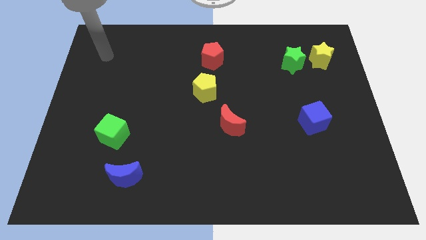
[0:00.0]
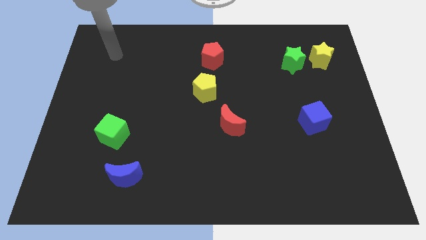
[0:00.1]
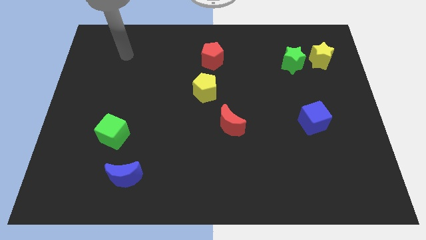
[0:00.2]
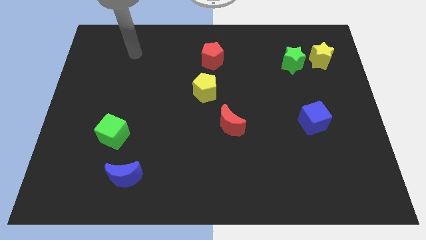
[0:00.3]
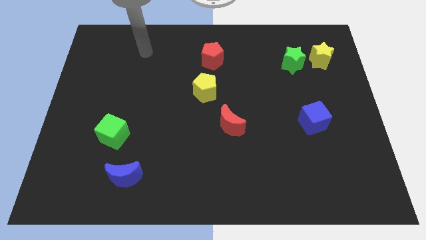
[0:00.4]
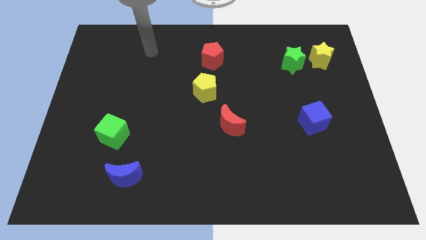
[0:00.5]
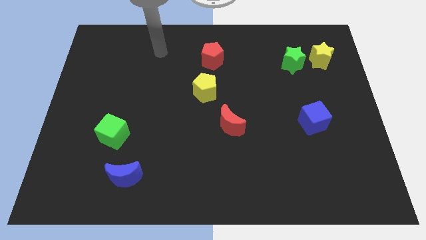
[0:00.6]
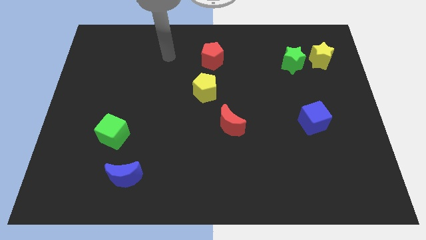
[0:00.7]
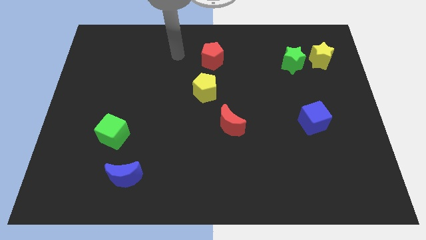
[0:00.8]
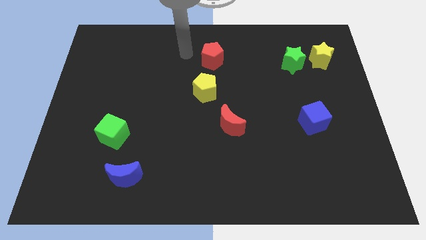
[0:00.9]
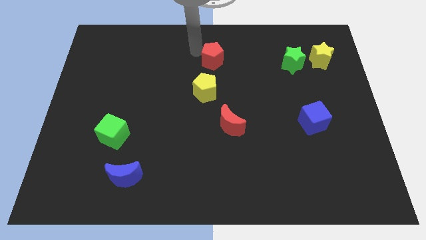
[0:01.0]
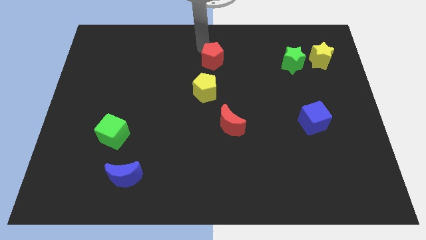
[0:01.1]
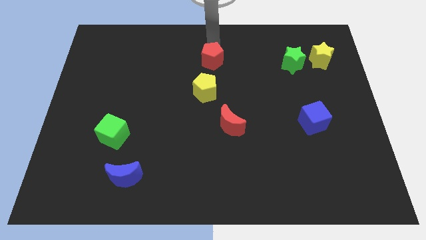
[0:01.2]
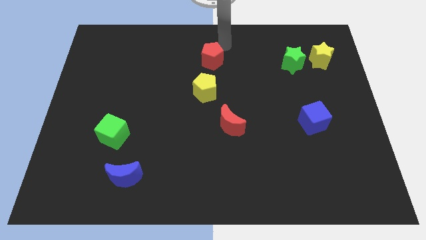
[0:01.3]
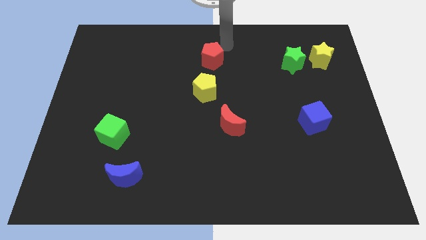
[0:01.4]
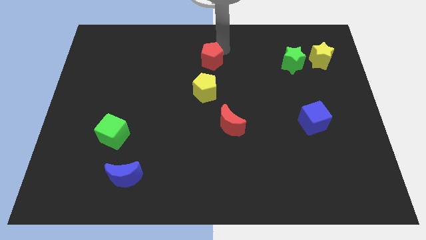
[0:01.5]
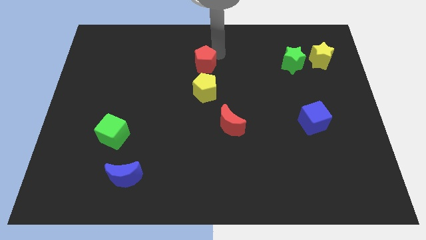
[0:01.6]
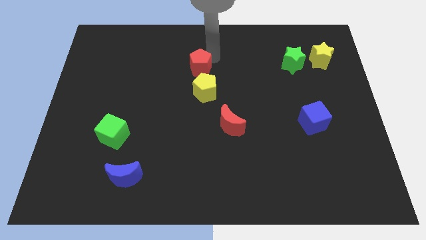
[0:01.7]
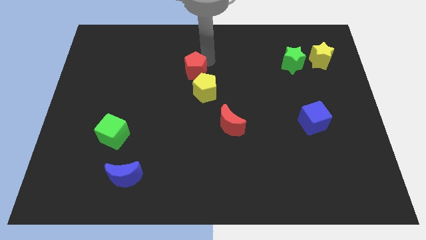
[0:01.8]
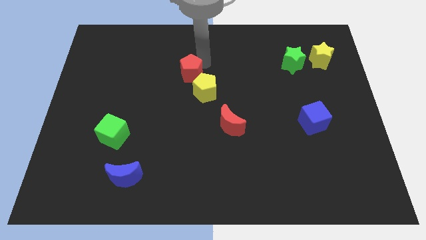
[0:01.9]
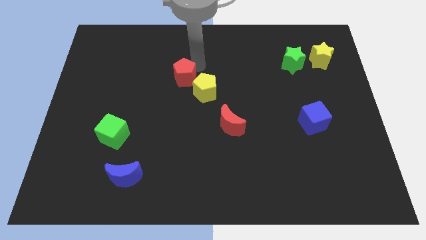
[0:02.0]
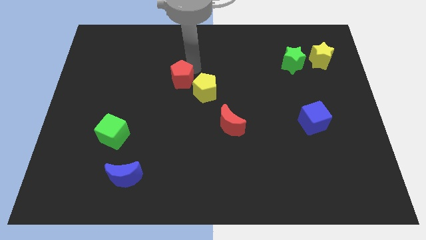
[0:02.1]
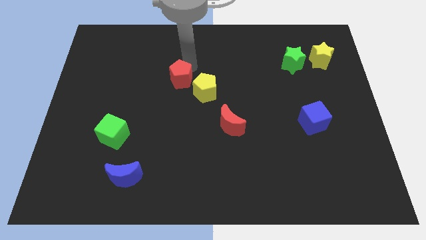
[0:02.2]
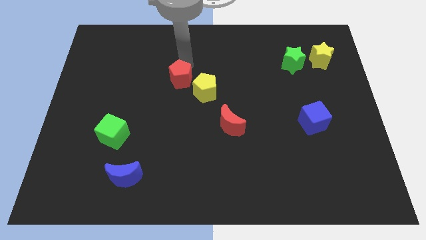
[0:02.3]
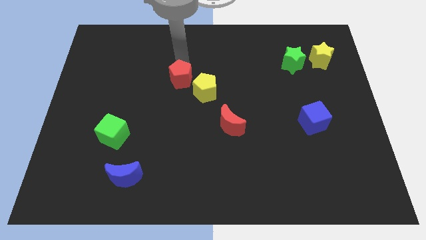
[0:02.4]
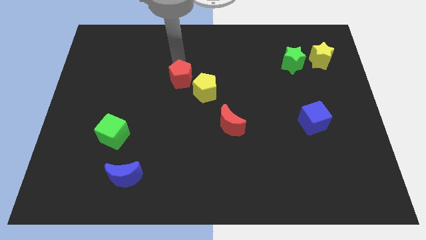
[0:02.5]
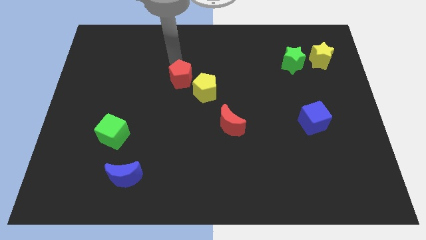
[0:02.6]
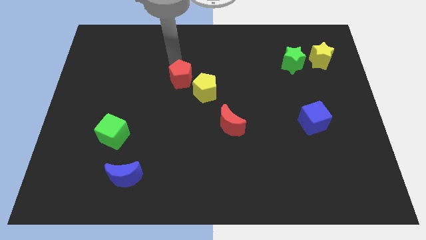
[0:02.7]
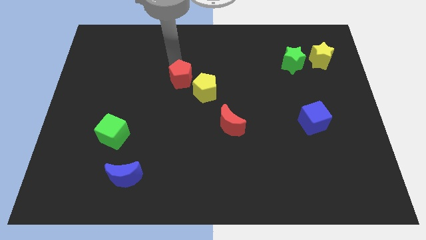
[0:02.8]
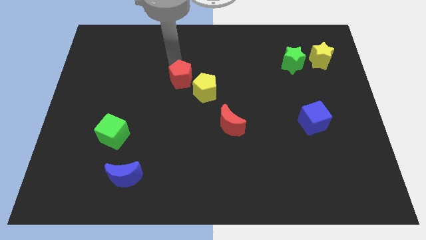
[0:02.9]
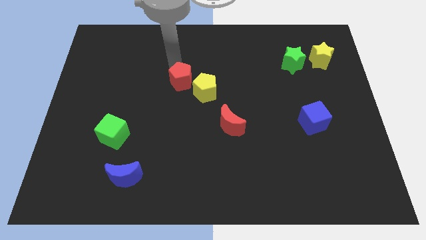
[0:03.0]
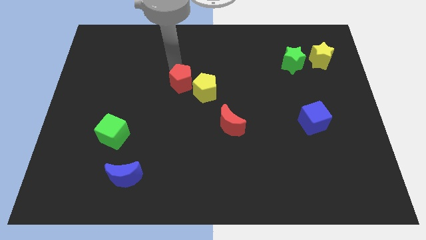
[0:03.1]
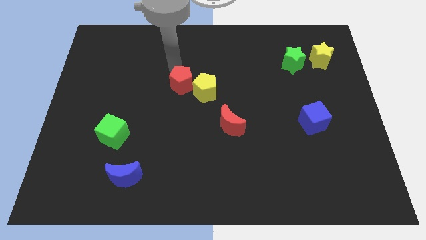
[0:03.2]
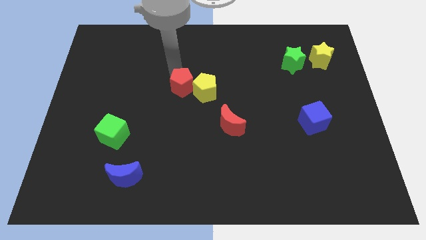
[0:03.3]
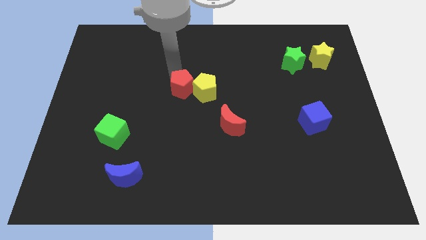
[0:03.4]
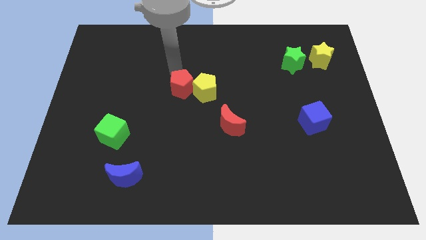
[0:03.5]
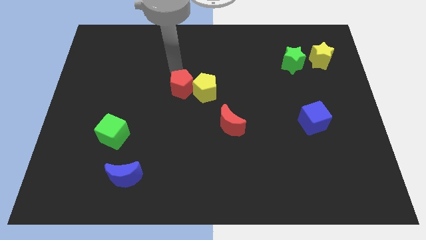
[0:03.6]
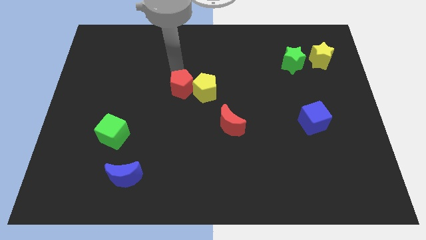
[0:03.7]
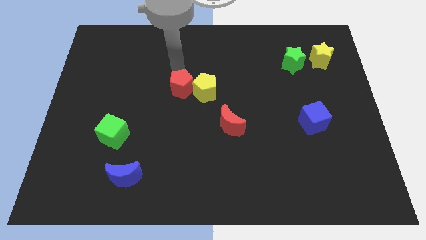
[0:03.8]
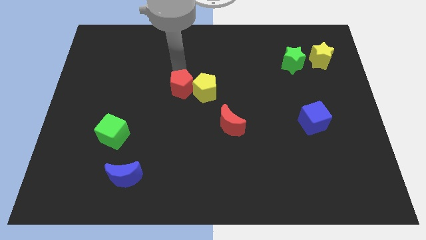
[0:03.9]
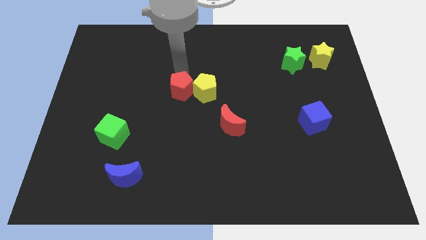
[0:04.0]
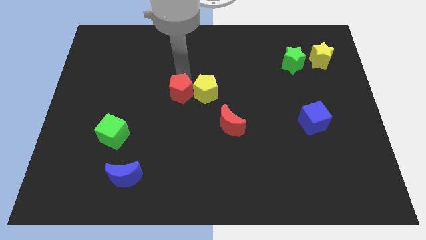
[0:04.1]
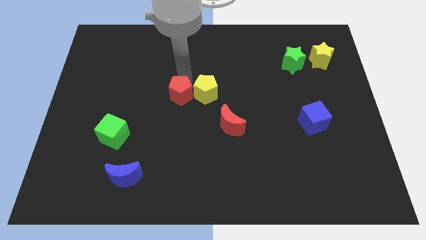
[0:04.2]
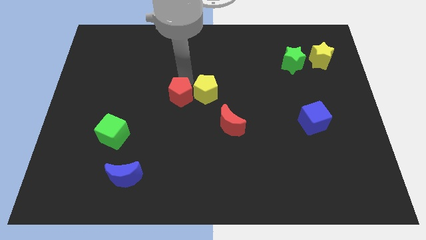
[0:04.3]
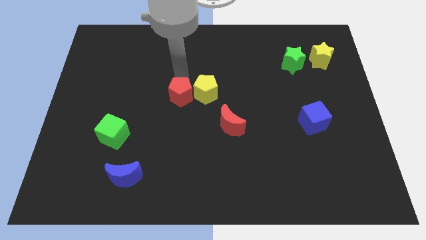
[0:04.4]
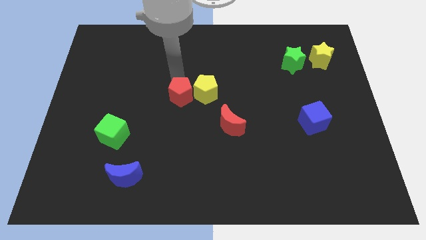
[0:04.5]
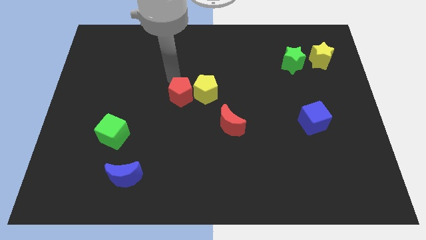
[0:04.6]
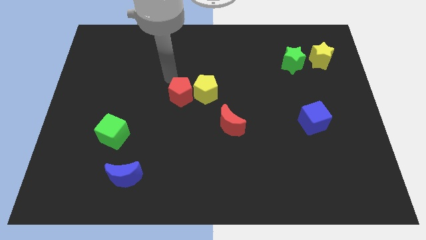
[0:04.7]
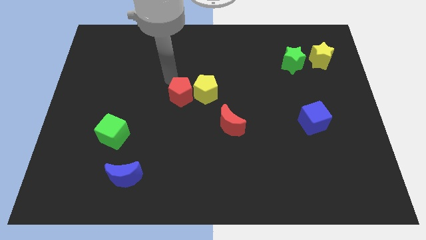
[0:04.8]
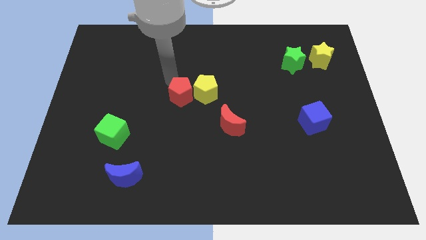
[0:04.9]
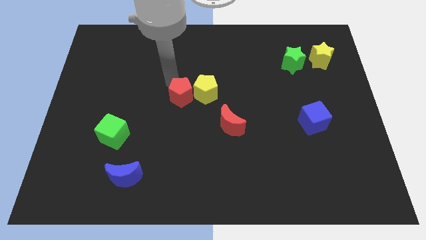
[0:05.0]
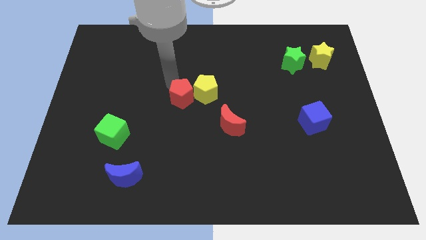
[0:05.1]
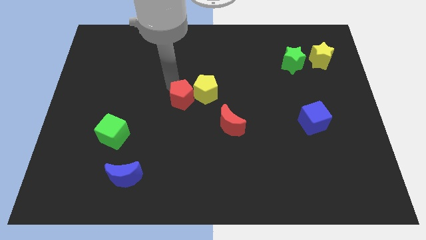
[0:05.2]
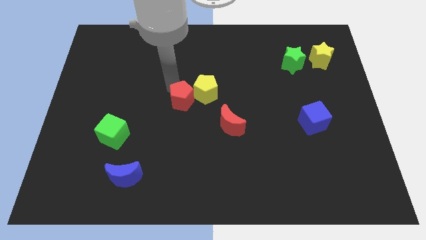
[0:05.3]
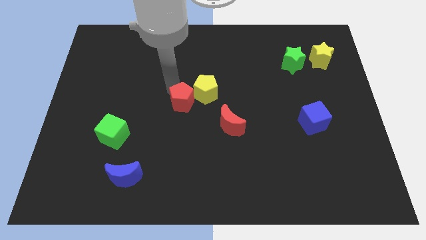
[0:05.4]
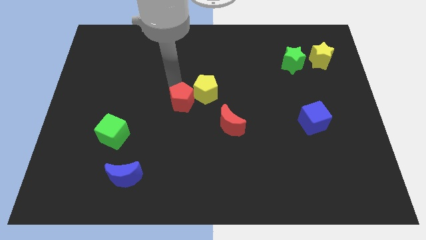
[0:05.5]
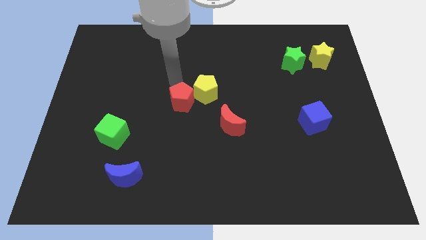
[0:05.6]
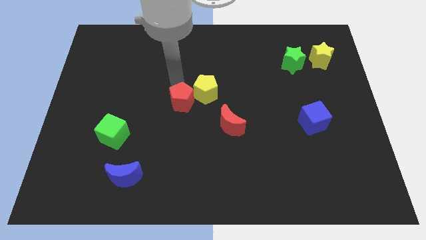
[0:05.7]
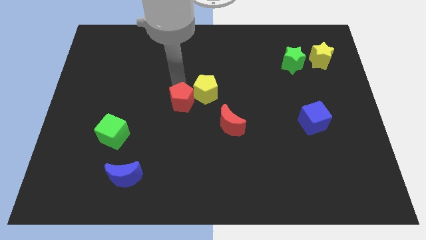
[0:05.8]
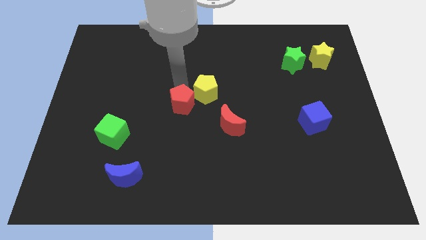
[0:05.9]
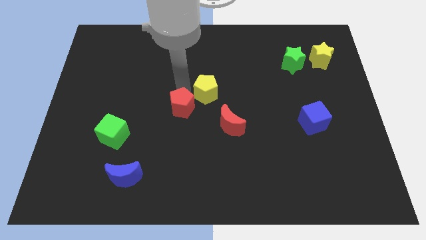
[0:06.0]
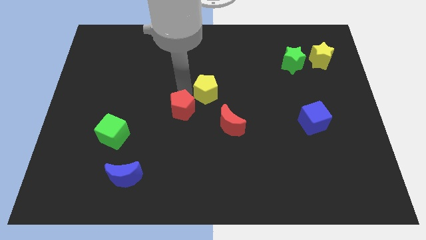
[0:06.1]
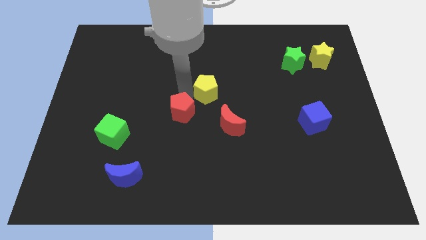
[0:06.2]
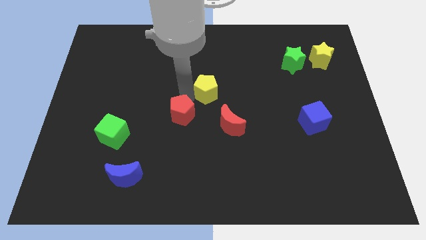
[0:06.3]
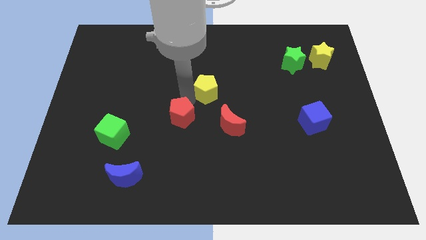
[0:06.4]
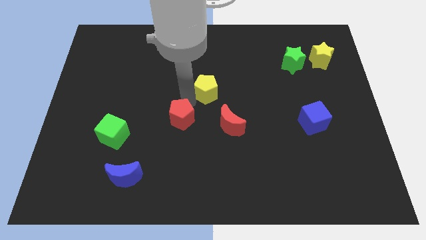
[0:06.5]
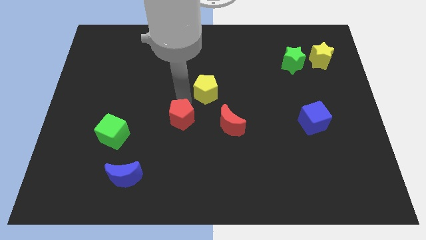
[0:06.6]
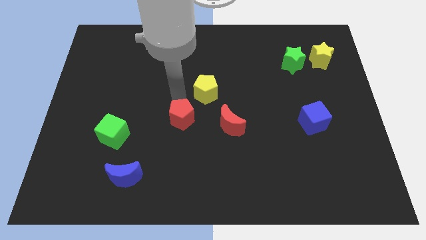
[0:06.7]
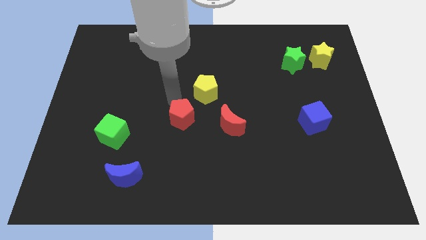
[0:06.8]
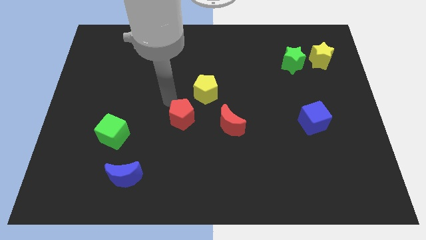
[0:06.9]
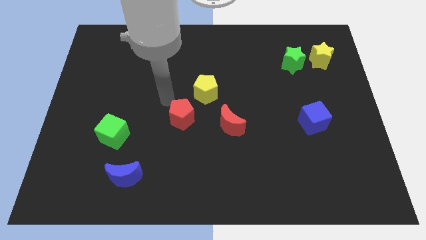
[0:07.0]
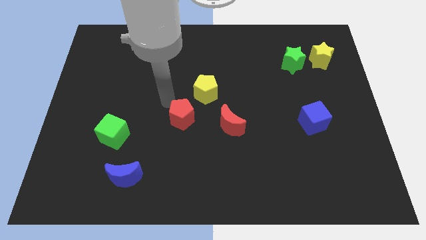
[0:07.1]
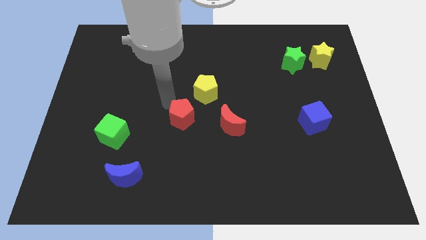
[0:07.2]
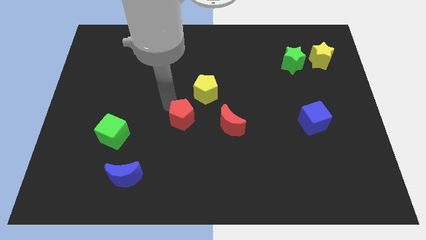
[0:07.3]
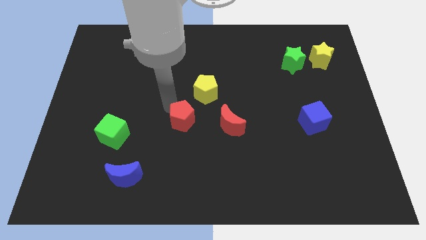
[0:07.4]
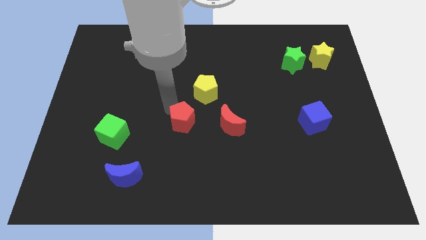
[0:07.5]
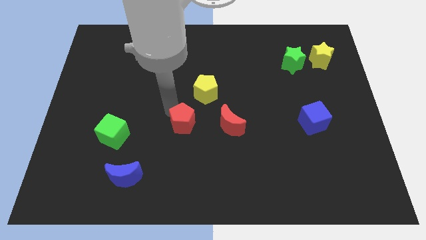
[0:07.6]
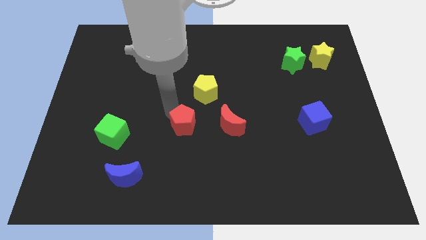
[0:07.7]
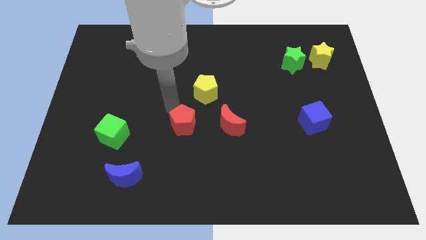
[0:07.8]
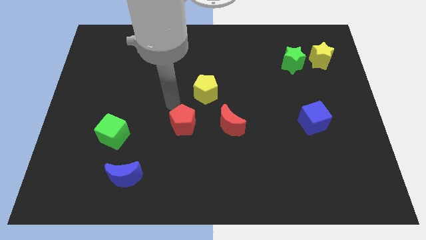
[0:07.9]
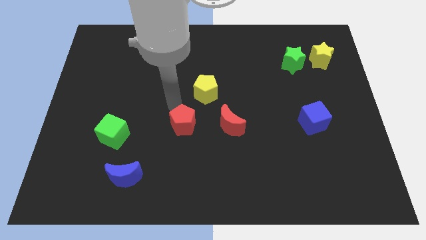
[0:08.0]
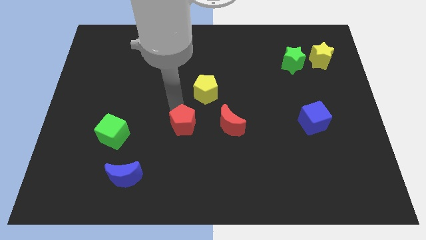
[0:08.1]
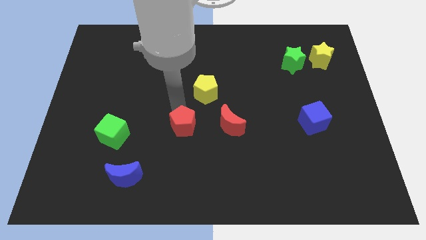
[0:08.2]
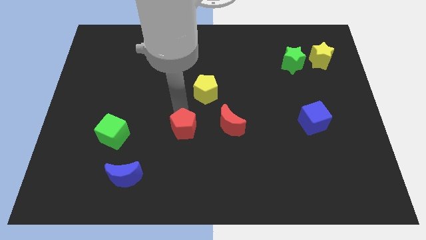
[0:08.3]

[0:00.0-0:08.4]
slide the red pentagon downwards
